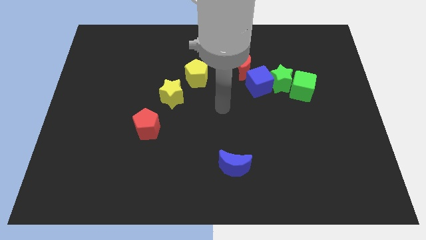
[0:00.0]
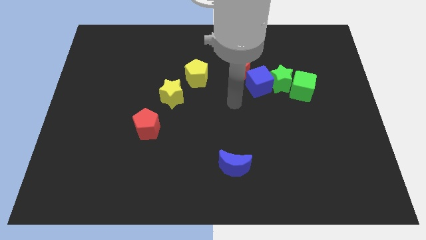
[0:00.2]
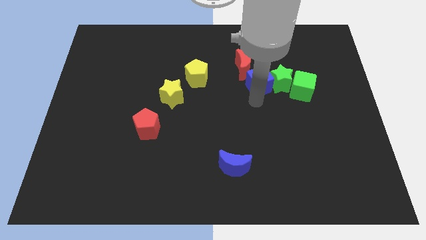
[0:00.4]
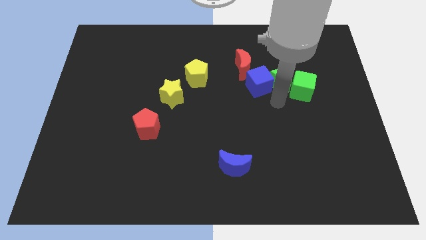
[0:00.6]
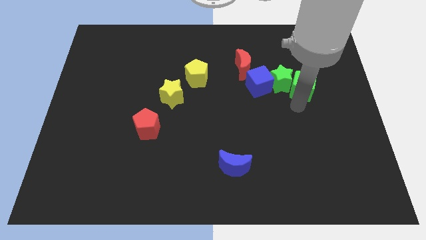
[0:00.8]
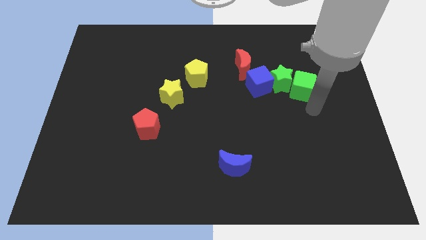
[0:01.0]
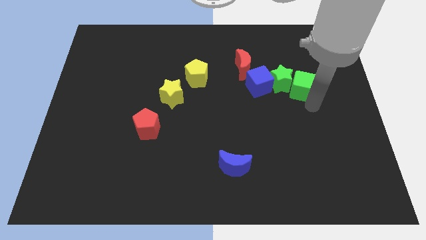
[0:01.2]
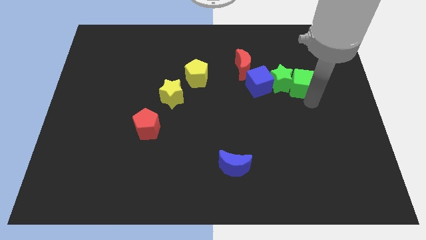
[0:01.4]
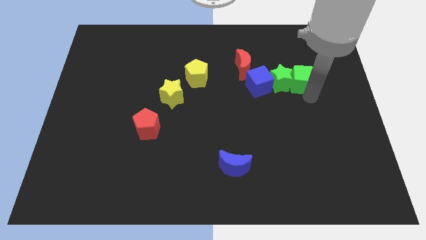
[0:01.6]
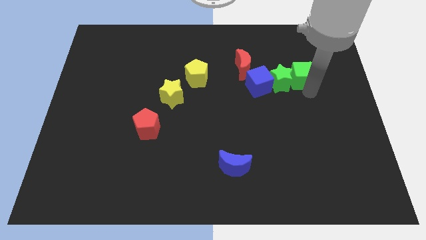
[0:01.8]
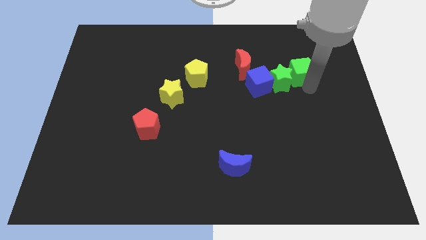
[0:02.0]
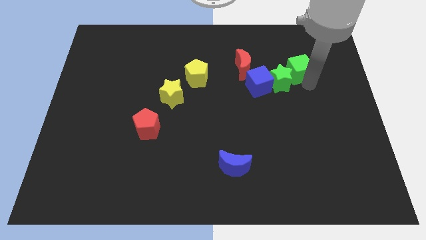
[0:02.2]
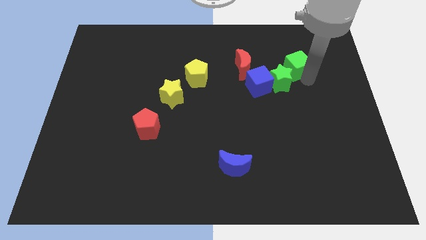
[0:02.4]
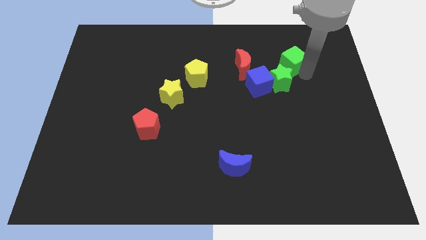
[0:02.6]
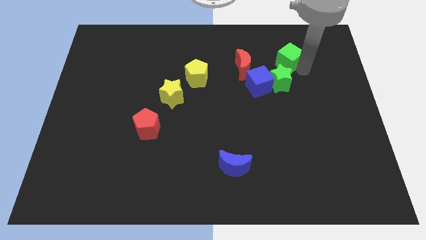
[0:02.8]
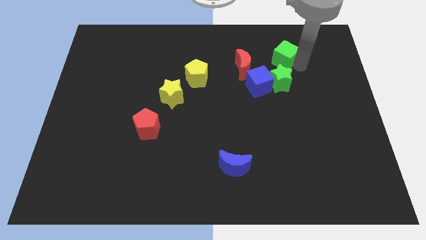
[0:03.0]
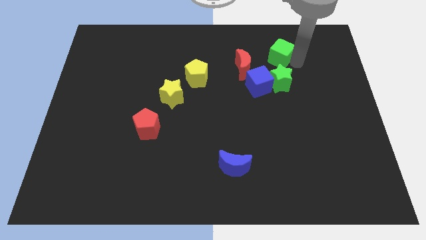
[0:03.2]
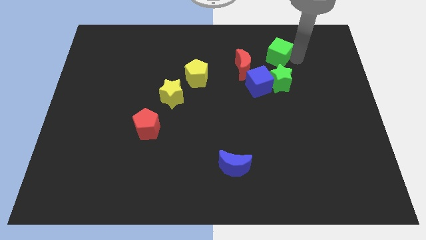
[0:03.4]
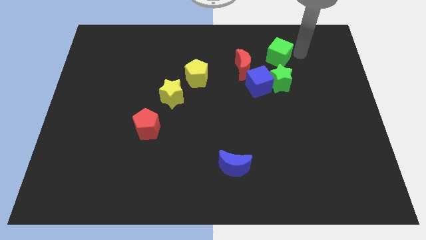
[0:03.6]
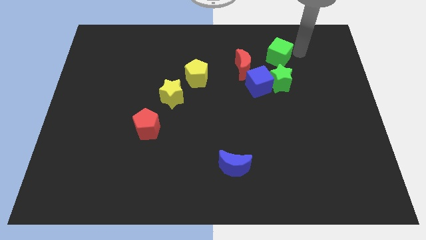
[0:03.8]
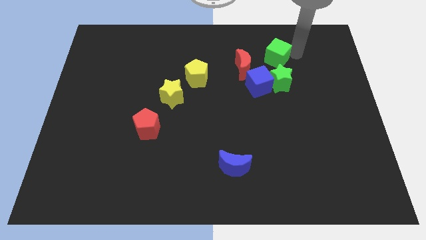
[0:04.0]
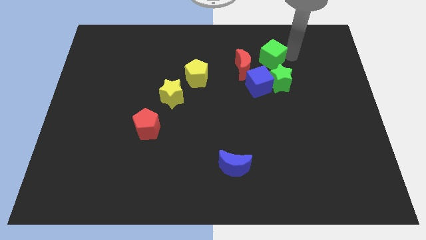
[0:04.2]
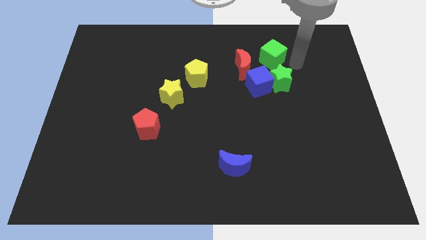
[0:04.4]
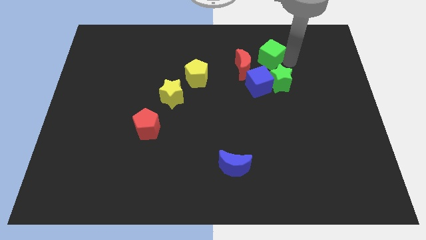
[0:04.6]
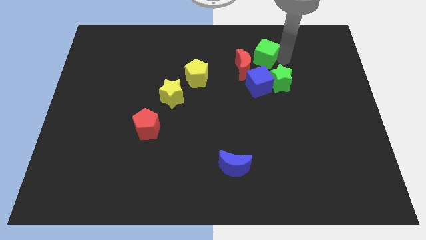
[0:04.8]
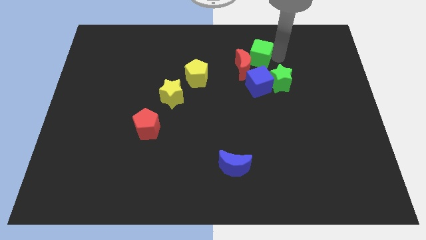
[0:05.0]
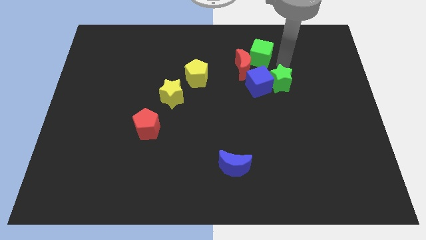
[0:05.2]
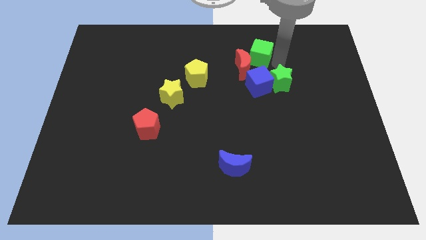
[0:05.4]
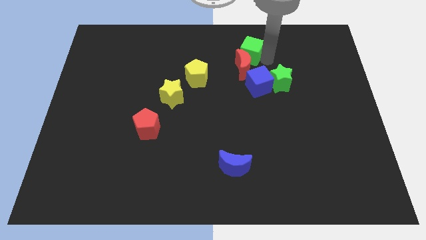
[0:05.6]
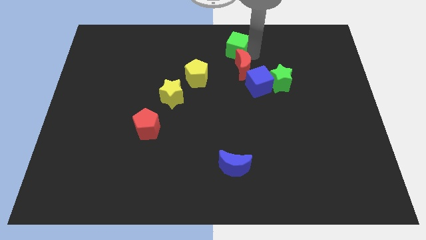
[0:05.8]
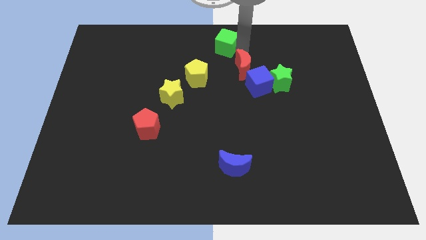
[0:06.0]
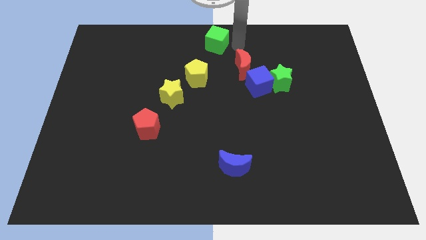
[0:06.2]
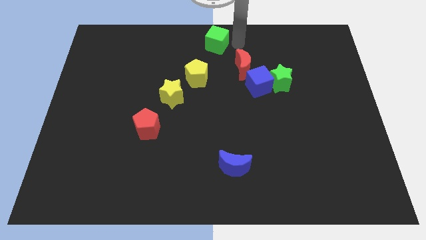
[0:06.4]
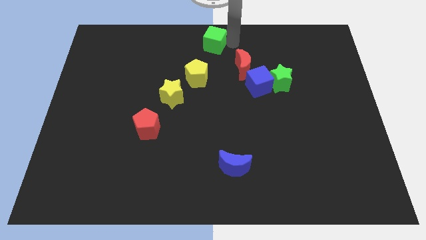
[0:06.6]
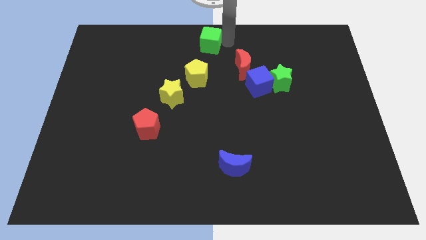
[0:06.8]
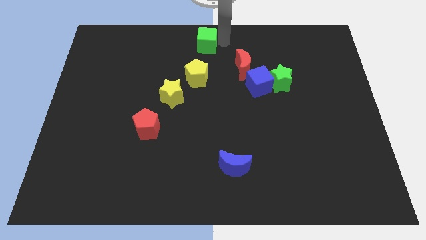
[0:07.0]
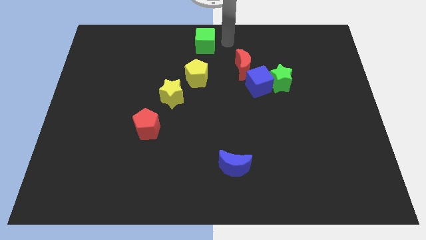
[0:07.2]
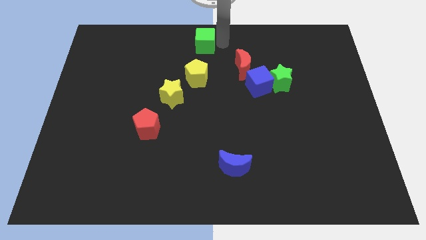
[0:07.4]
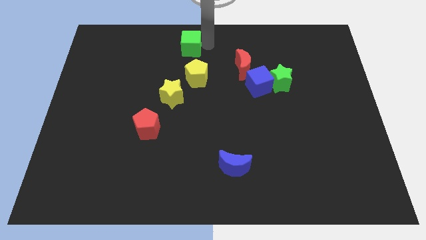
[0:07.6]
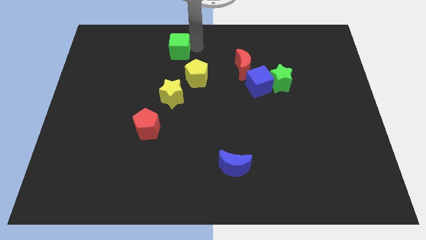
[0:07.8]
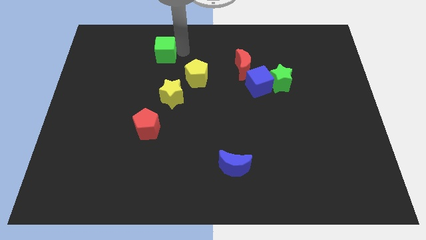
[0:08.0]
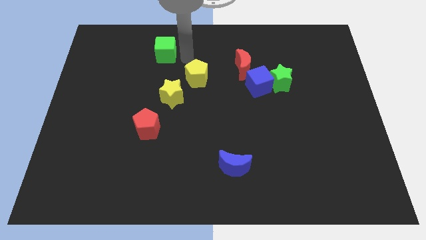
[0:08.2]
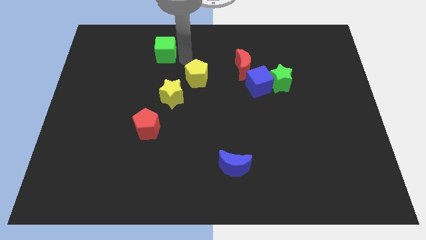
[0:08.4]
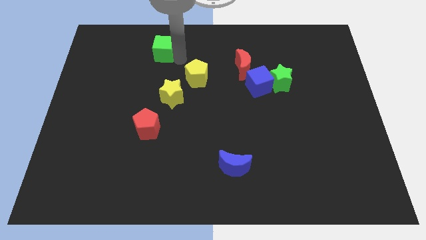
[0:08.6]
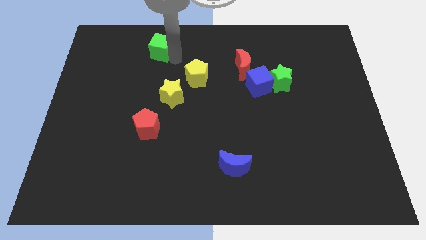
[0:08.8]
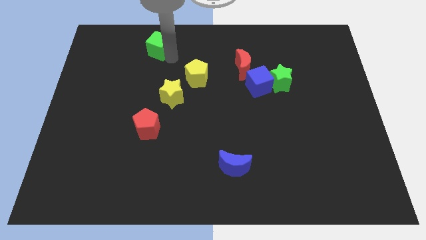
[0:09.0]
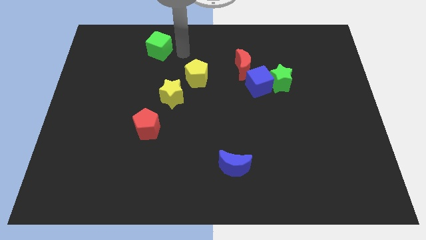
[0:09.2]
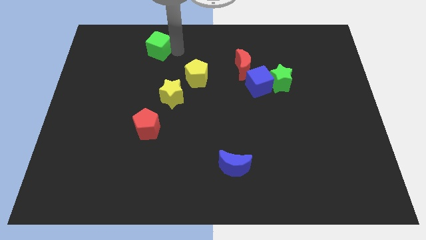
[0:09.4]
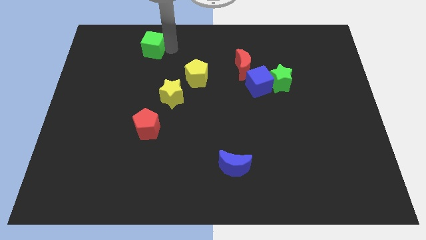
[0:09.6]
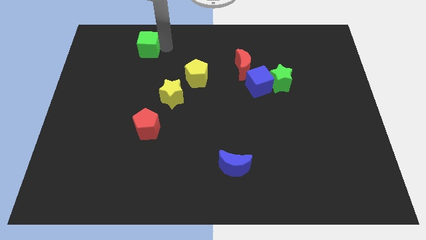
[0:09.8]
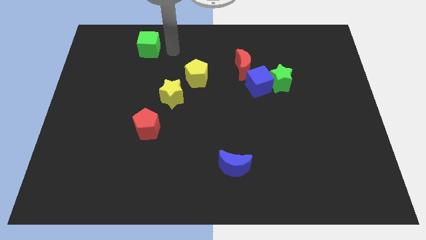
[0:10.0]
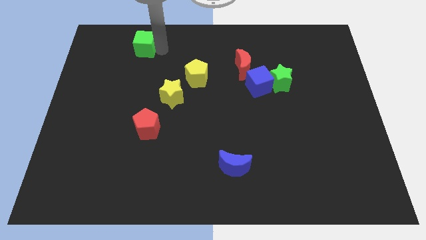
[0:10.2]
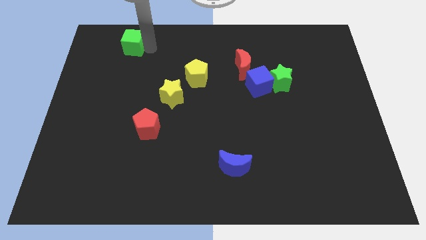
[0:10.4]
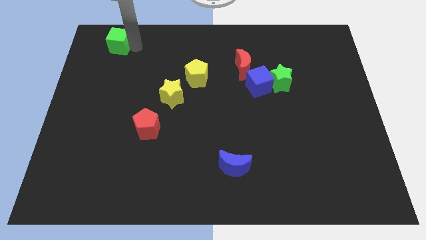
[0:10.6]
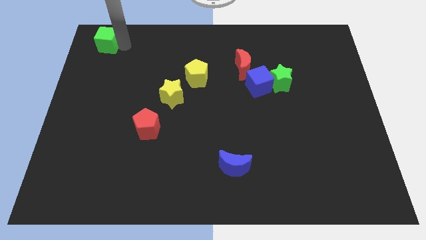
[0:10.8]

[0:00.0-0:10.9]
put the green cube to the top left corner

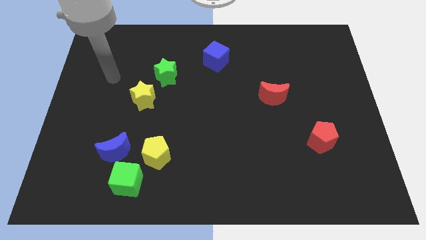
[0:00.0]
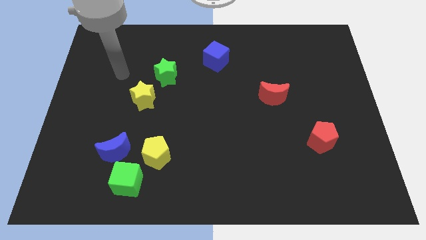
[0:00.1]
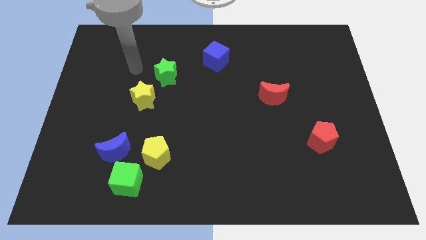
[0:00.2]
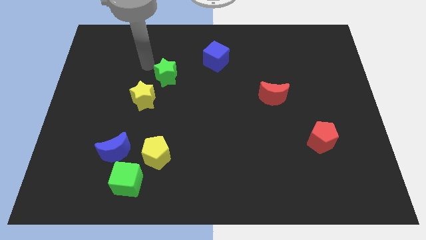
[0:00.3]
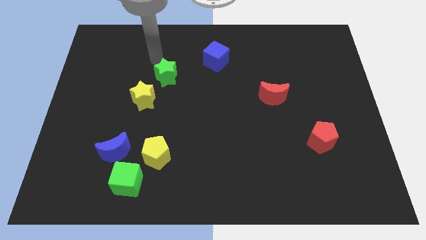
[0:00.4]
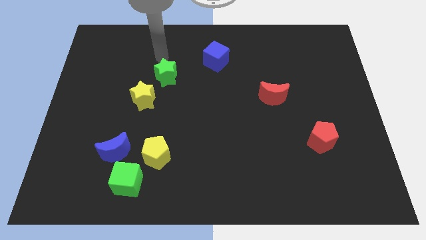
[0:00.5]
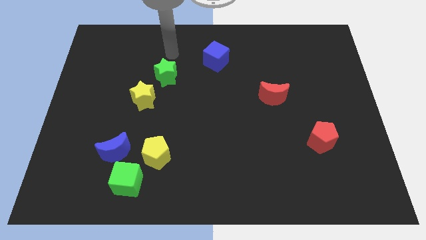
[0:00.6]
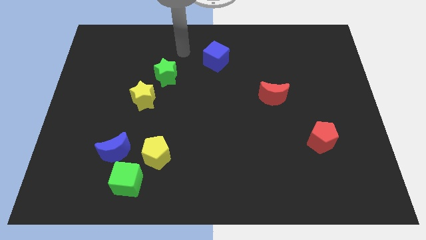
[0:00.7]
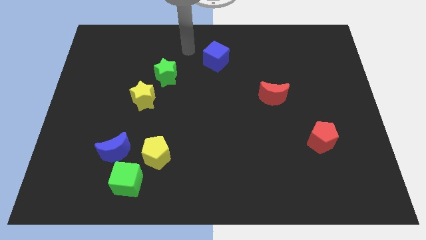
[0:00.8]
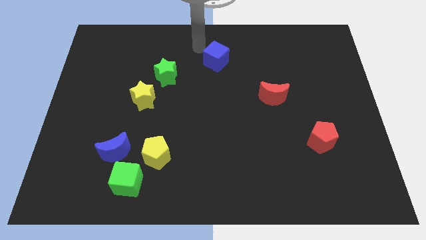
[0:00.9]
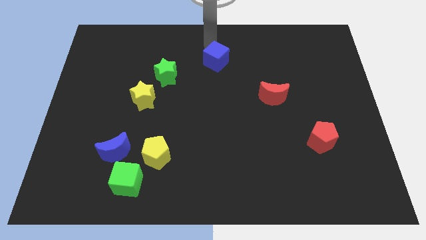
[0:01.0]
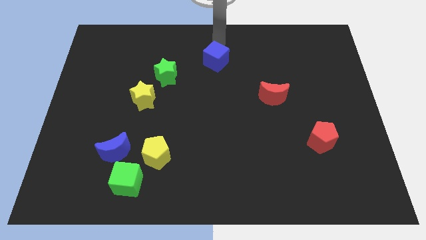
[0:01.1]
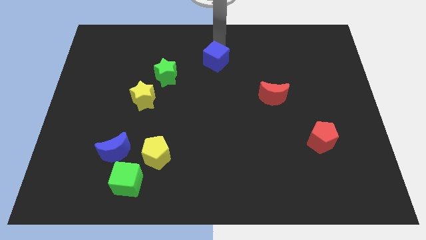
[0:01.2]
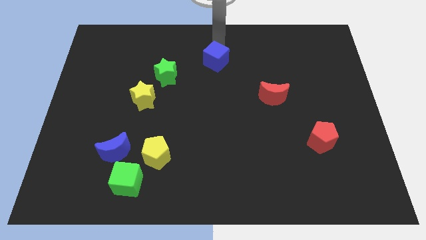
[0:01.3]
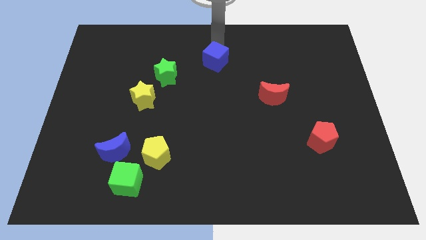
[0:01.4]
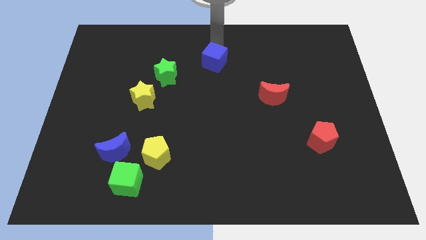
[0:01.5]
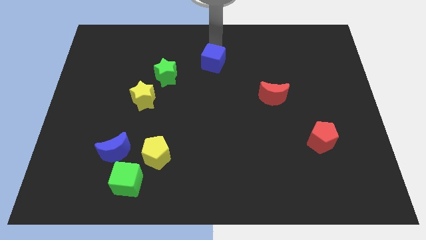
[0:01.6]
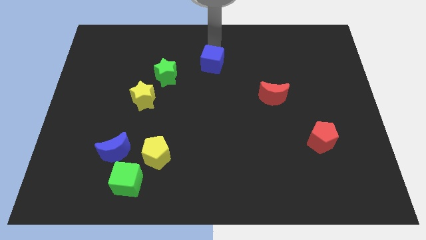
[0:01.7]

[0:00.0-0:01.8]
move the blue cube to the middle of the board
